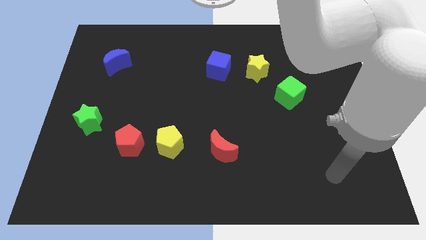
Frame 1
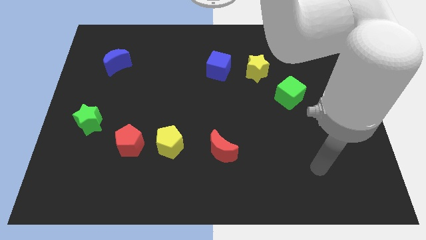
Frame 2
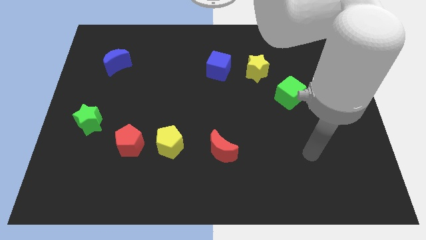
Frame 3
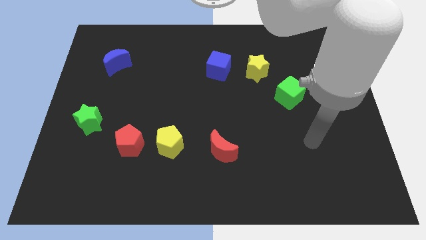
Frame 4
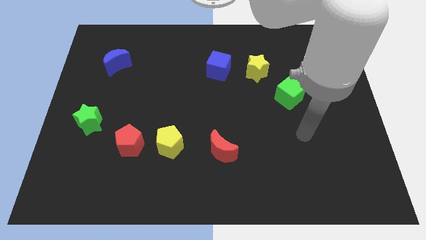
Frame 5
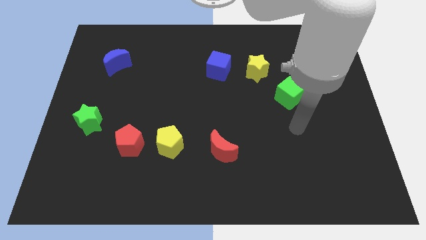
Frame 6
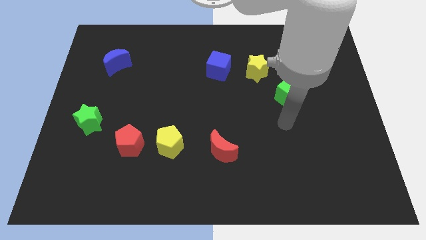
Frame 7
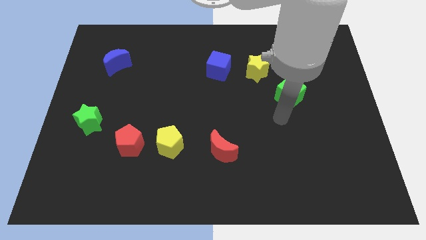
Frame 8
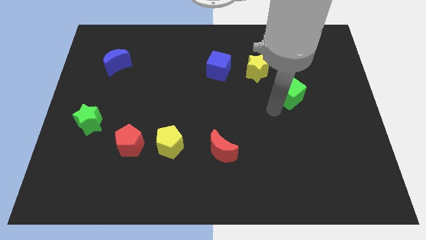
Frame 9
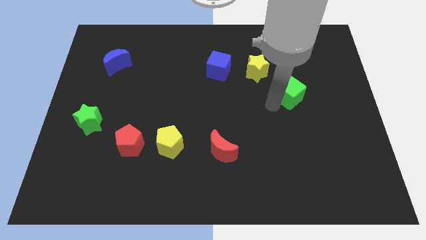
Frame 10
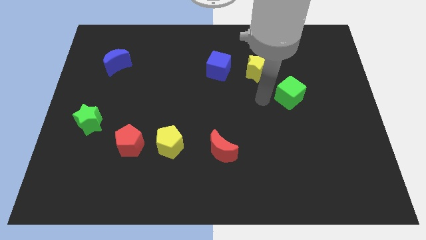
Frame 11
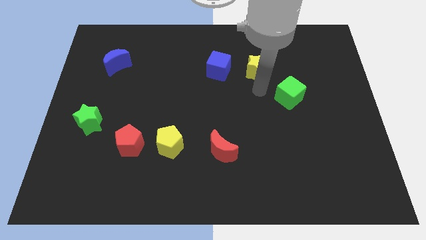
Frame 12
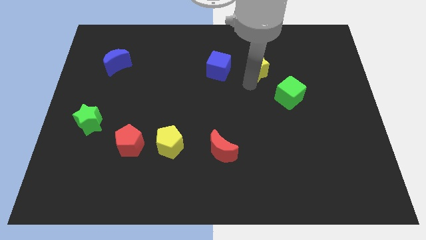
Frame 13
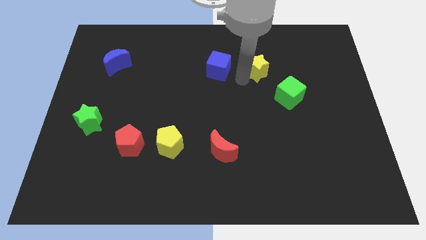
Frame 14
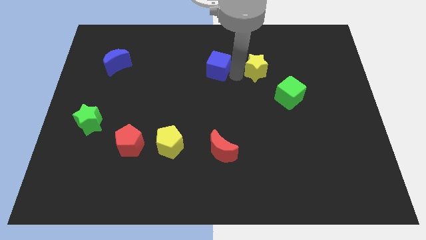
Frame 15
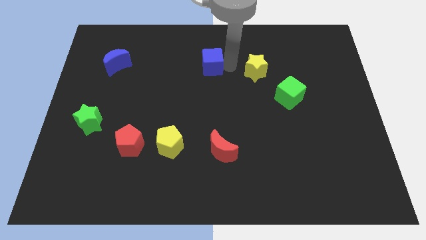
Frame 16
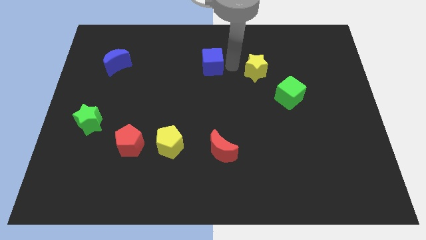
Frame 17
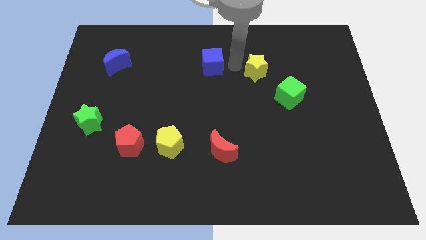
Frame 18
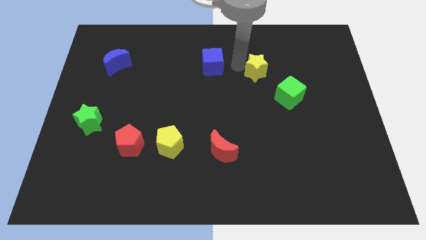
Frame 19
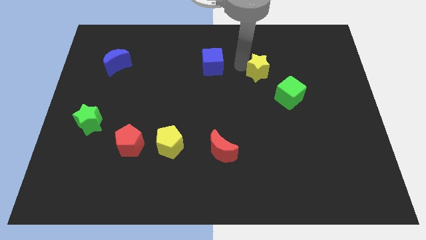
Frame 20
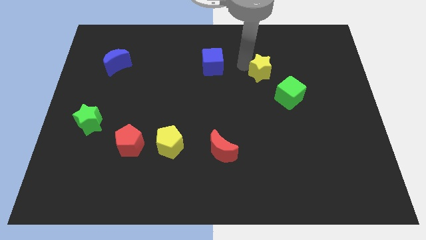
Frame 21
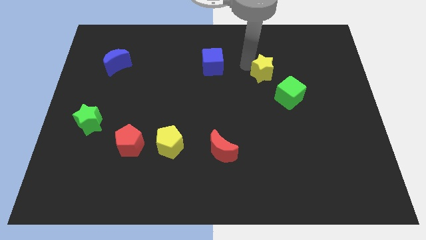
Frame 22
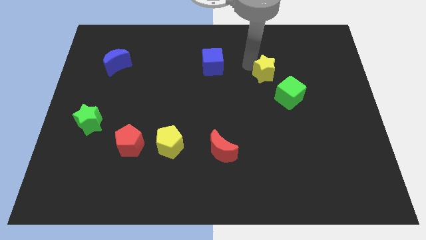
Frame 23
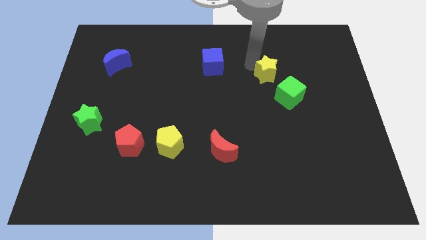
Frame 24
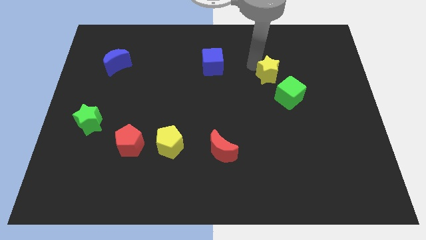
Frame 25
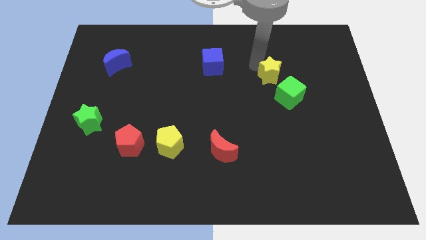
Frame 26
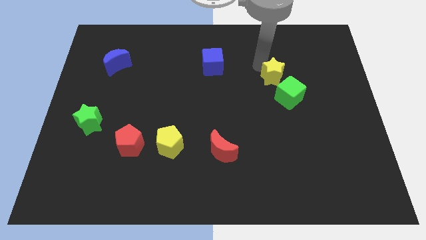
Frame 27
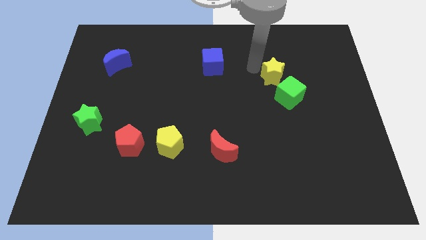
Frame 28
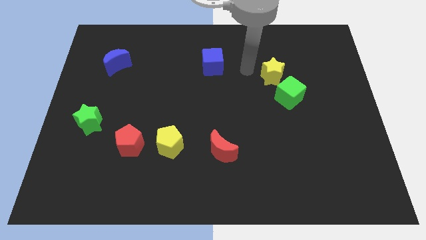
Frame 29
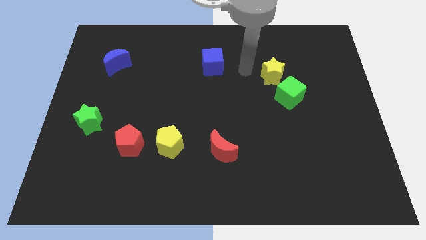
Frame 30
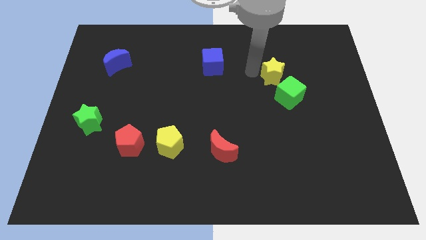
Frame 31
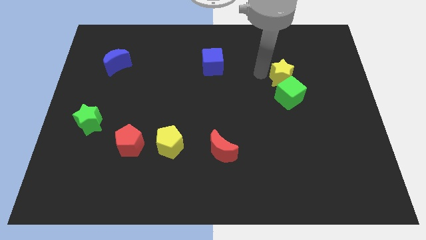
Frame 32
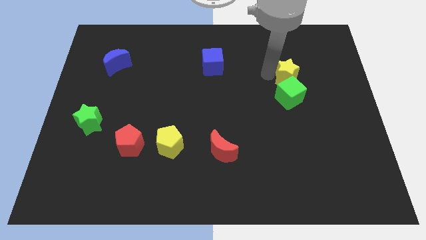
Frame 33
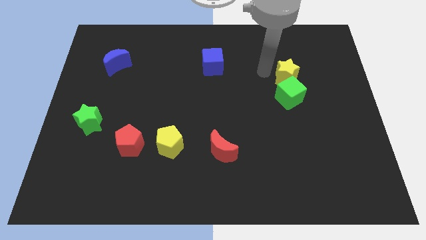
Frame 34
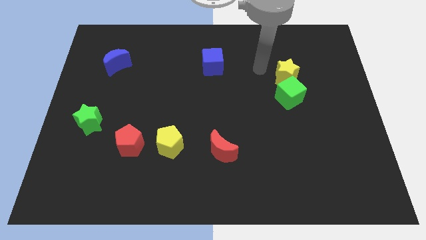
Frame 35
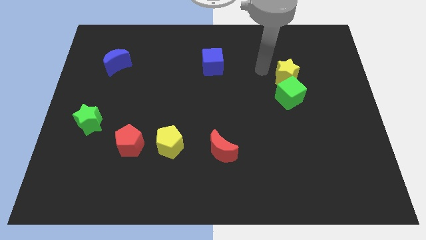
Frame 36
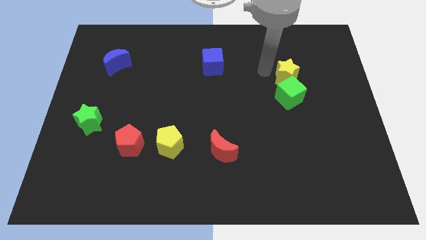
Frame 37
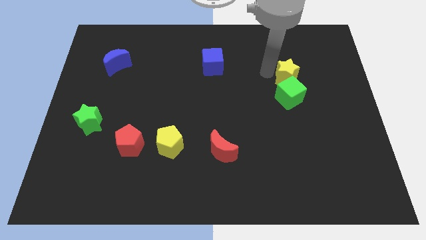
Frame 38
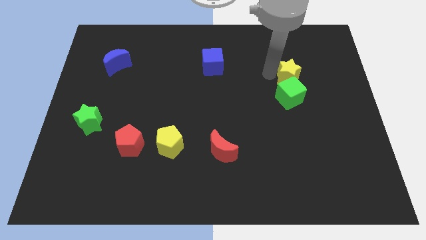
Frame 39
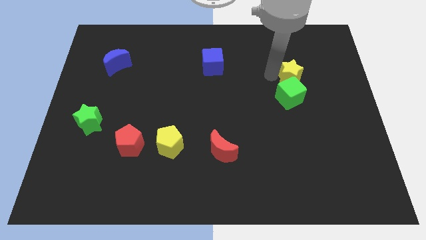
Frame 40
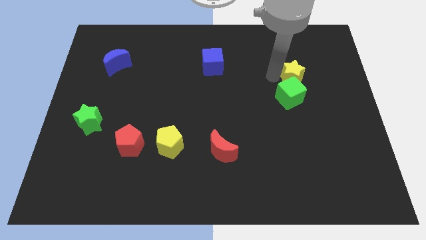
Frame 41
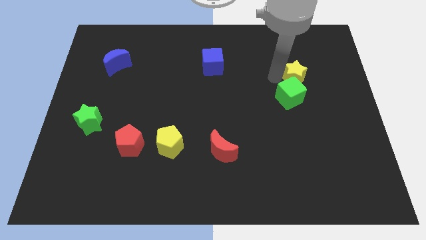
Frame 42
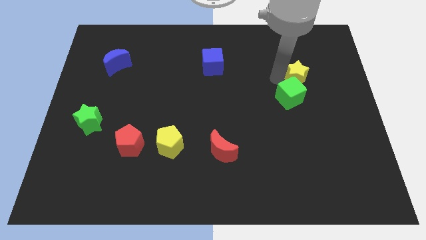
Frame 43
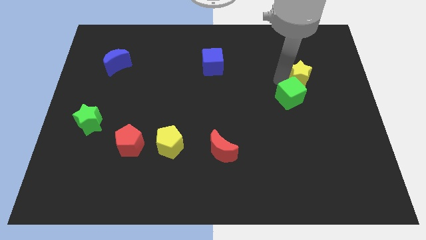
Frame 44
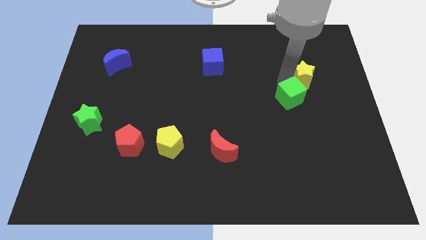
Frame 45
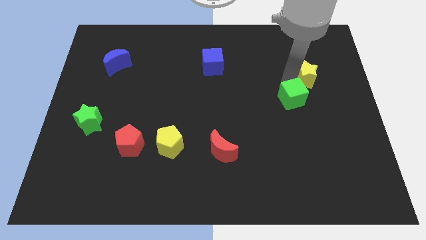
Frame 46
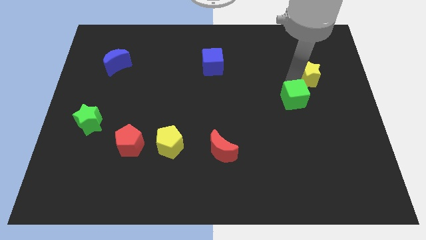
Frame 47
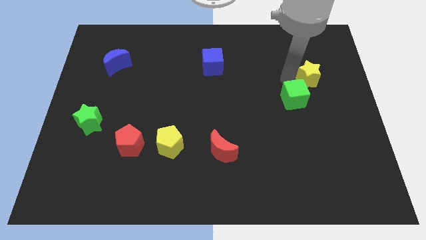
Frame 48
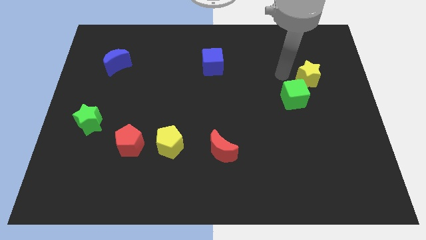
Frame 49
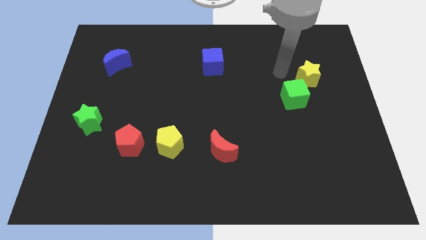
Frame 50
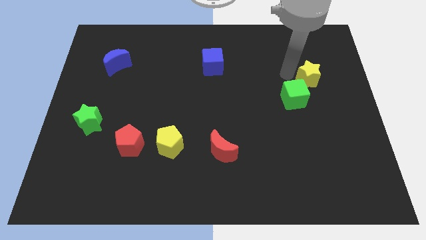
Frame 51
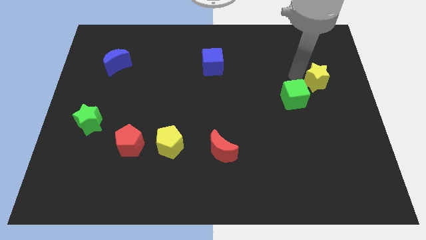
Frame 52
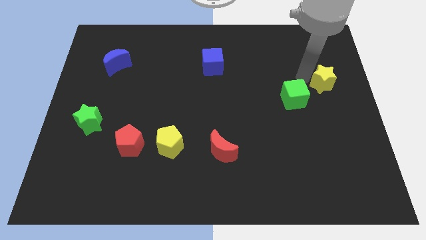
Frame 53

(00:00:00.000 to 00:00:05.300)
put the yellow star to the center right
